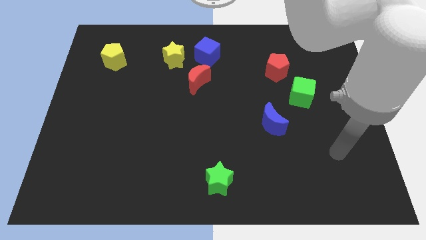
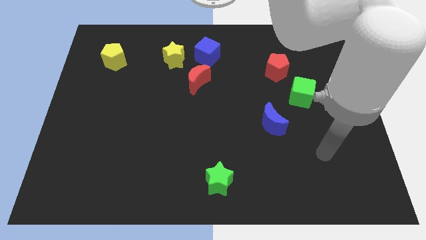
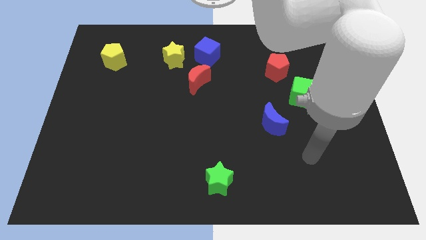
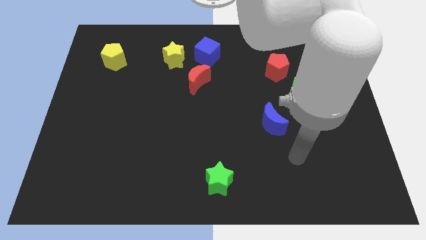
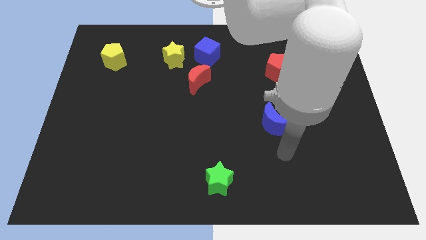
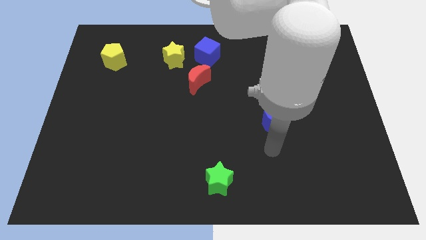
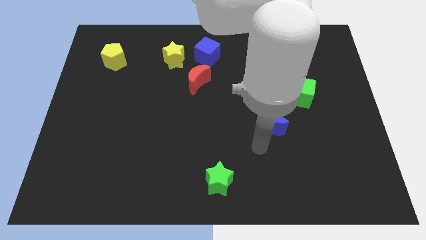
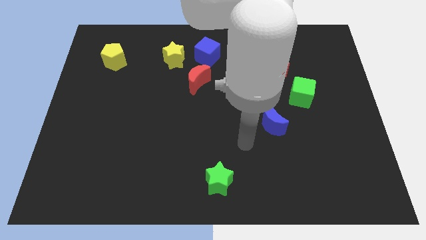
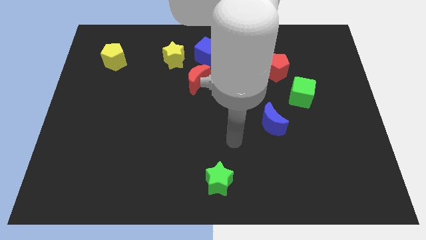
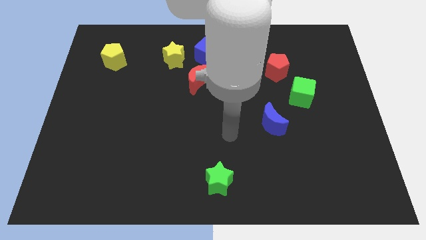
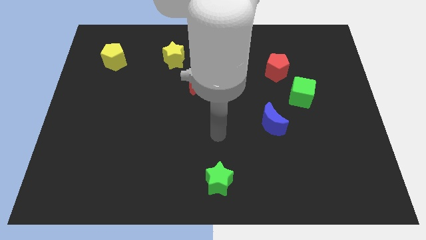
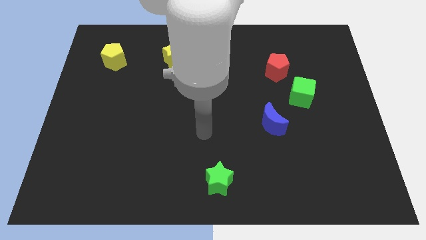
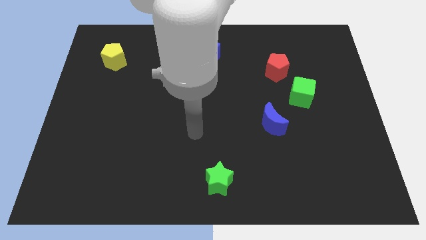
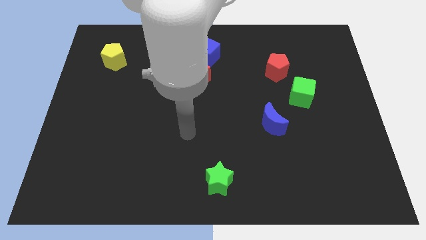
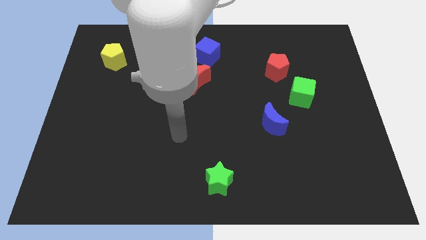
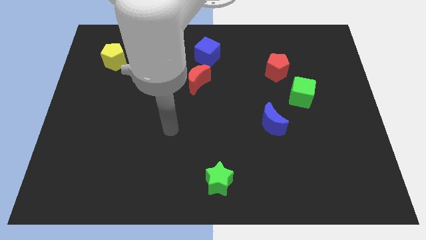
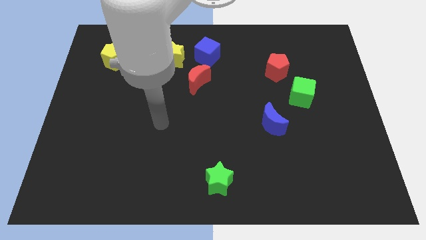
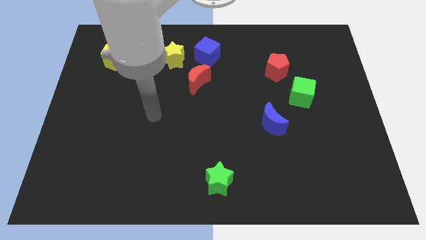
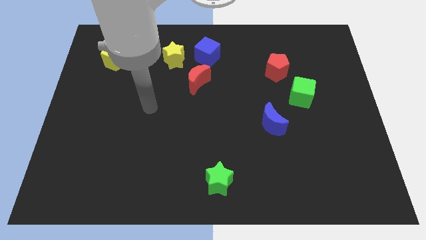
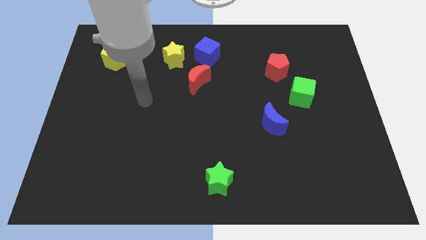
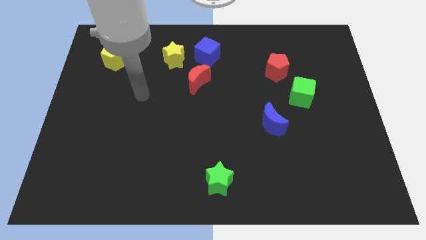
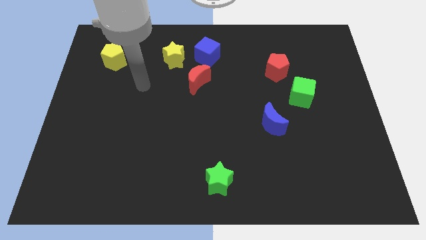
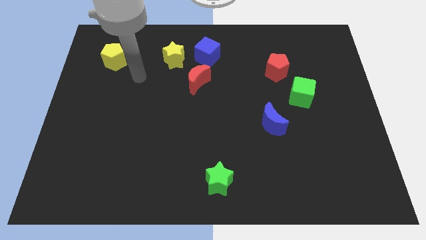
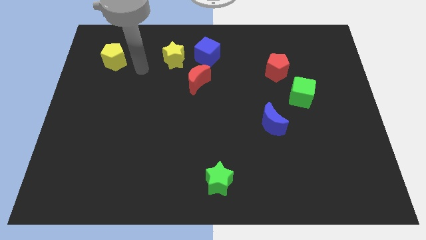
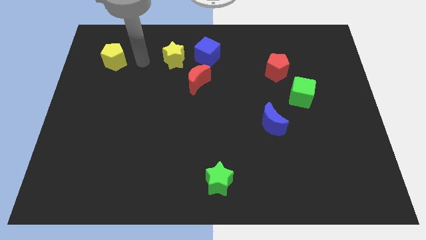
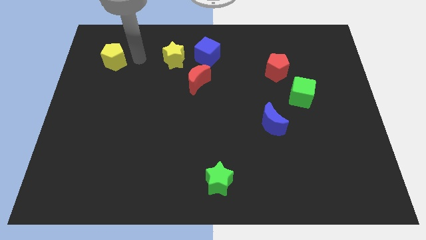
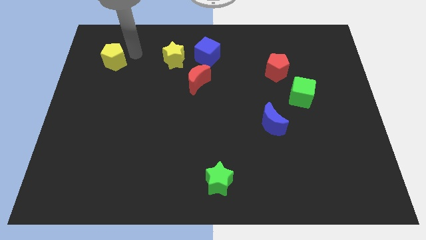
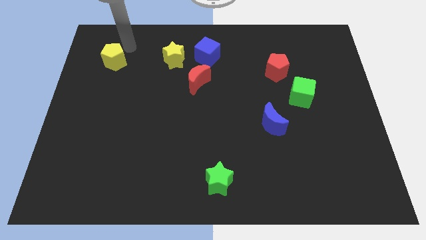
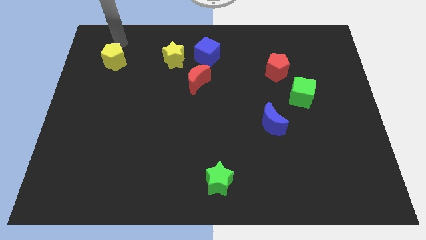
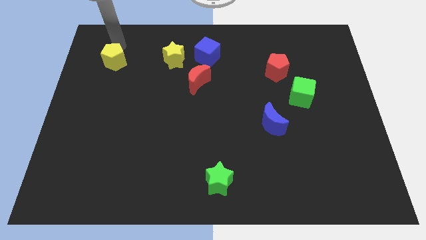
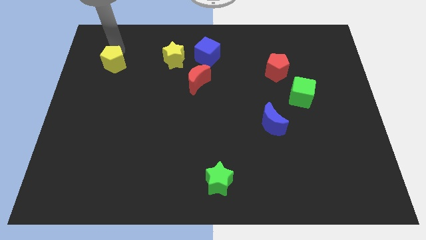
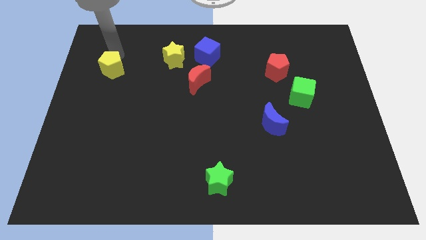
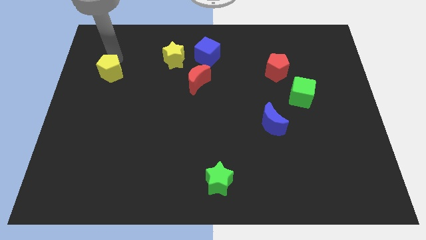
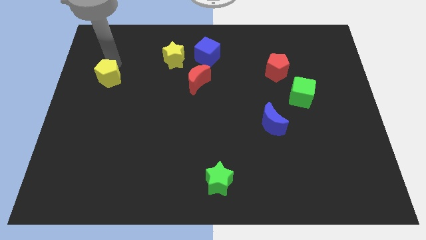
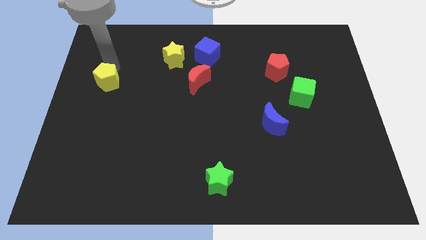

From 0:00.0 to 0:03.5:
slide the yellow pentagon a little bit downwards

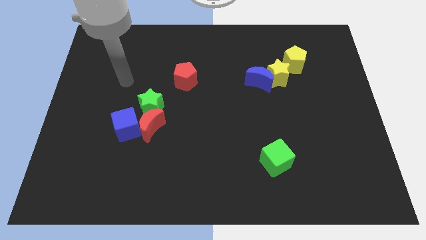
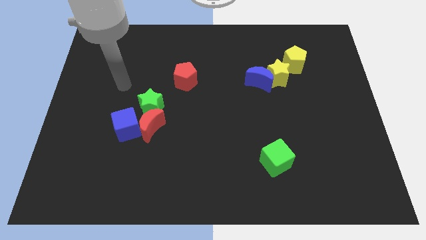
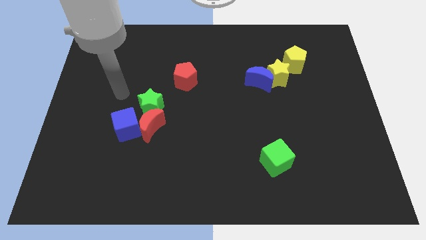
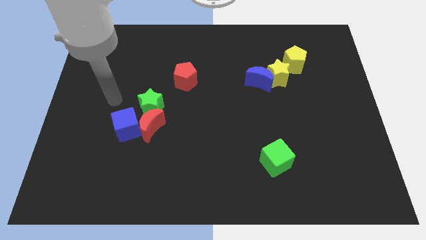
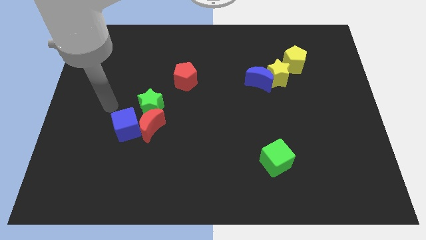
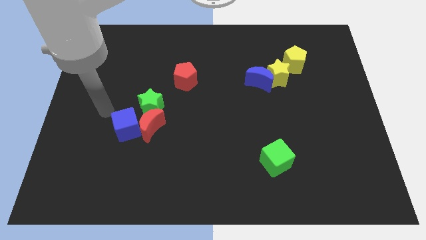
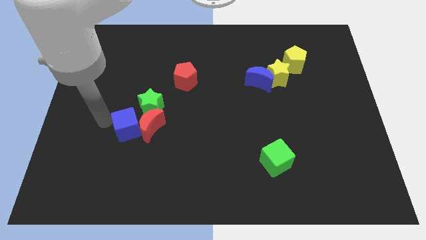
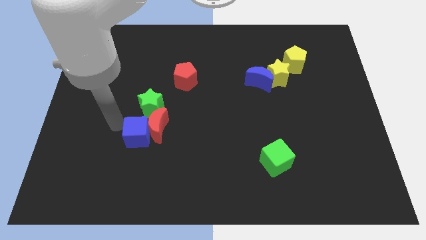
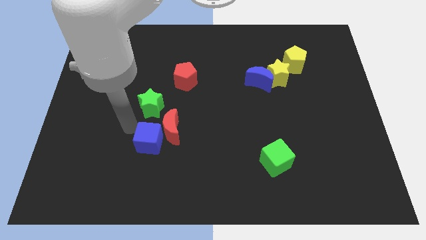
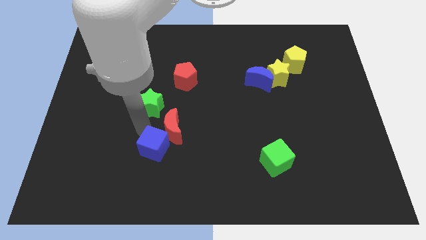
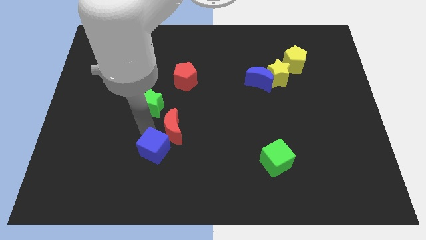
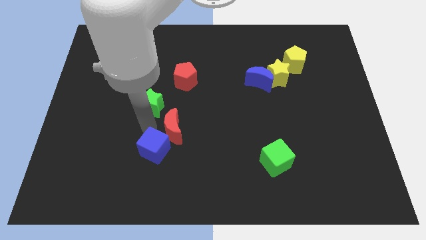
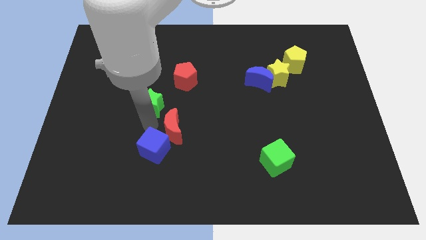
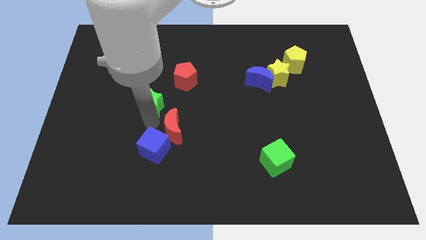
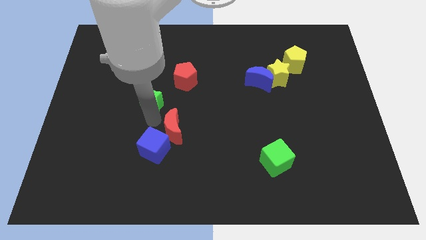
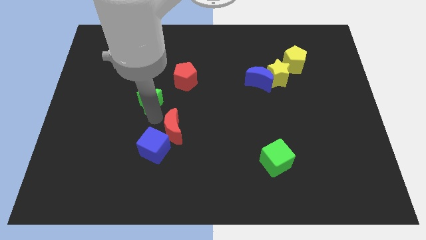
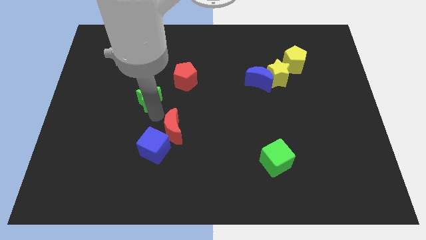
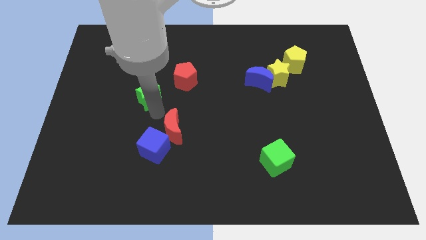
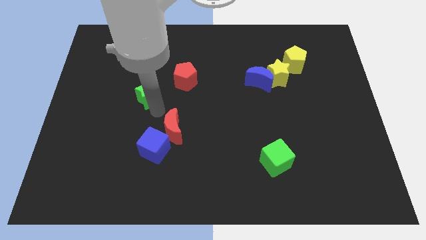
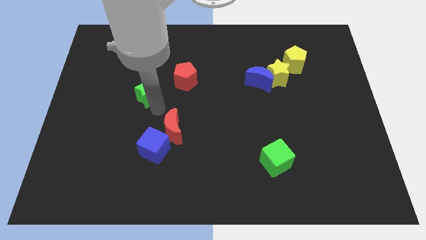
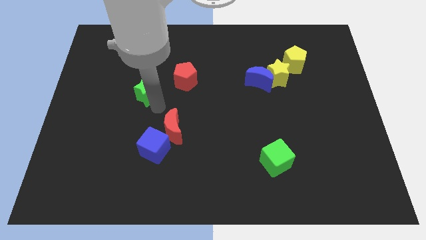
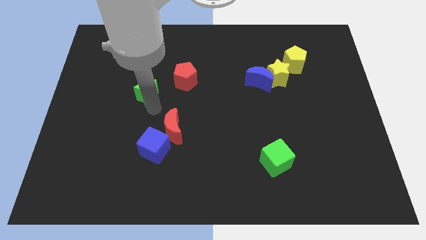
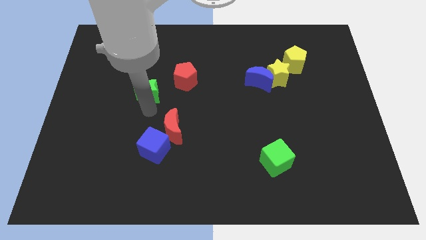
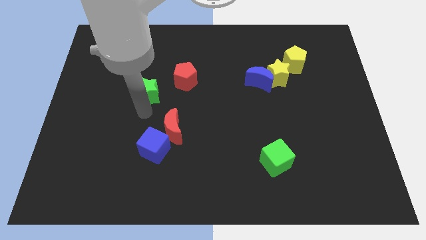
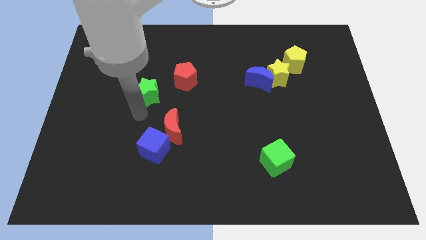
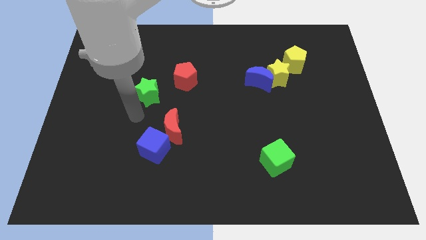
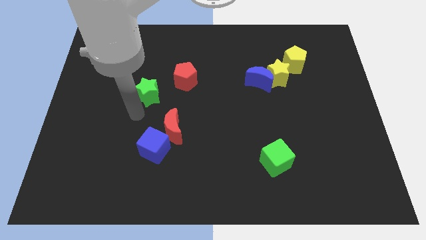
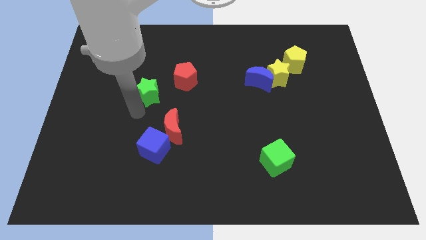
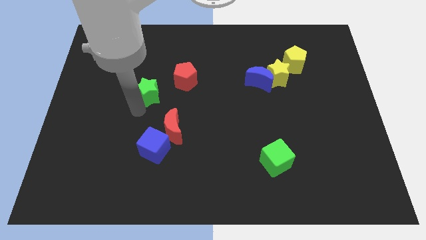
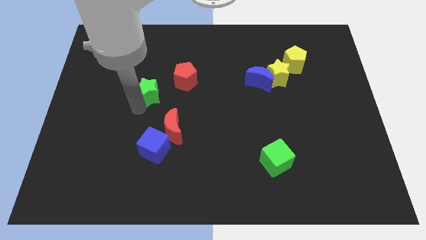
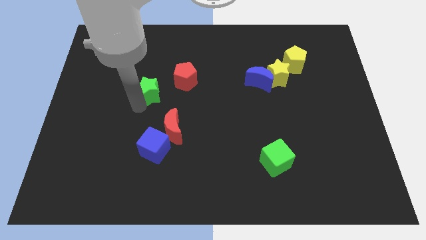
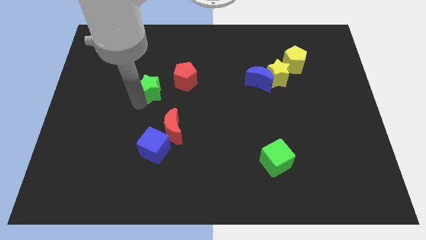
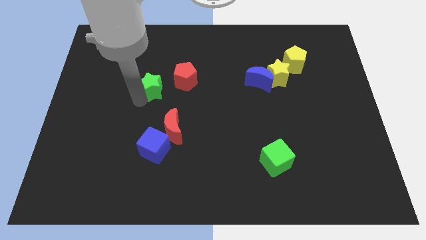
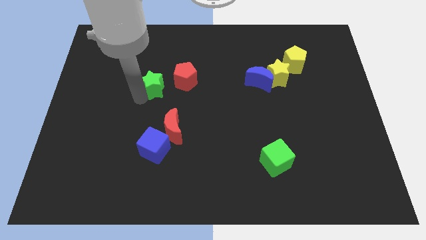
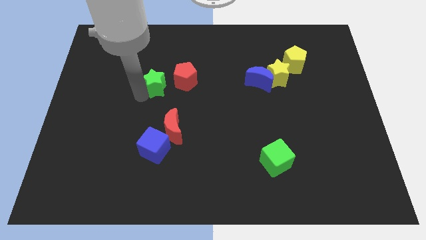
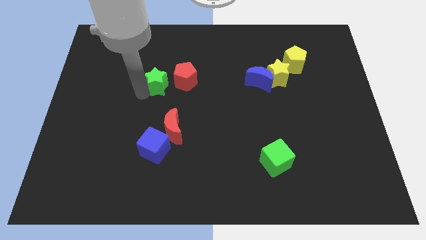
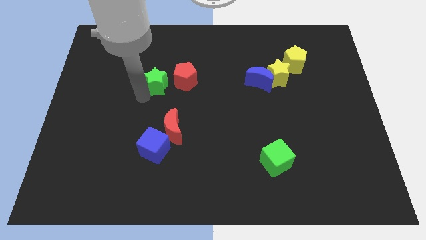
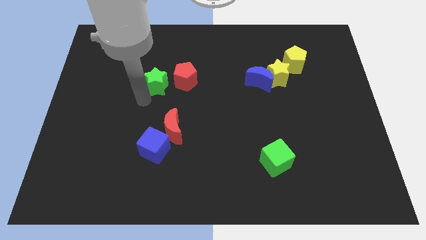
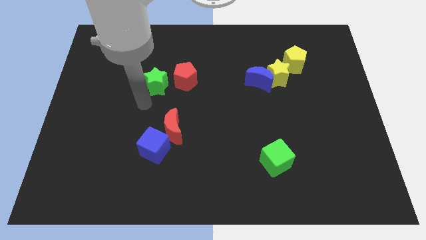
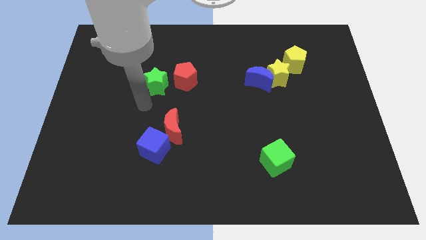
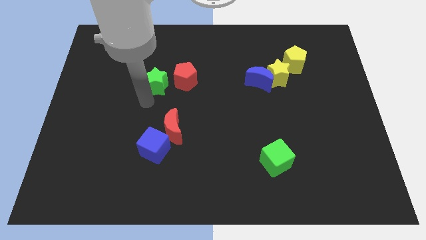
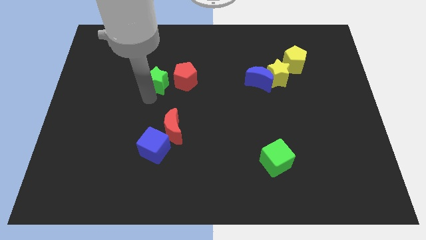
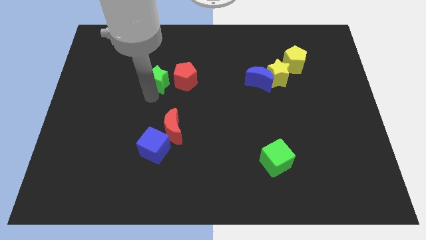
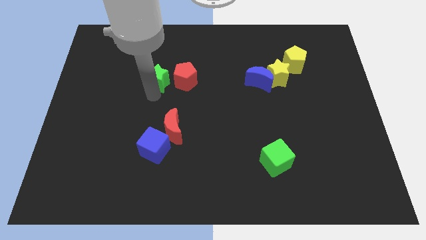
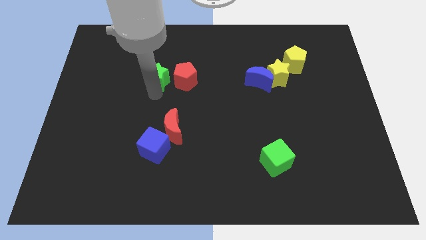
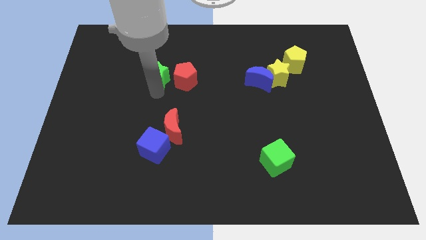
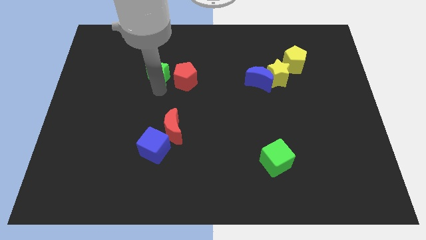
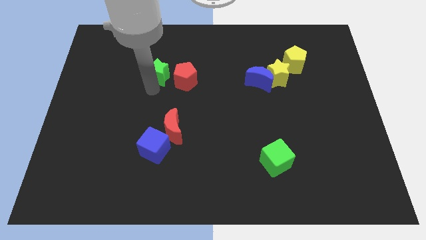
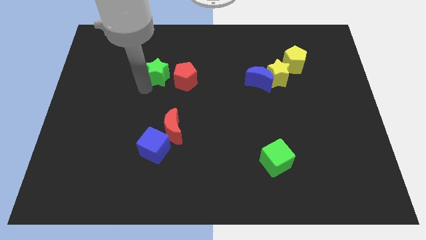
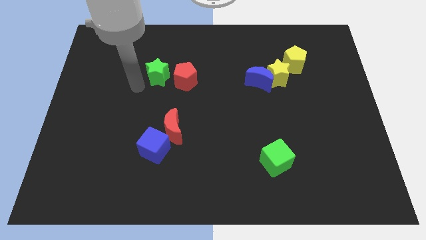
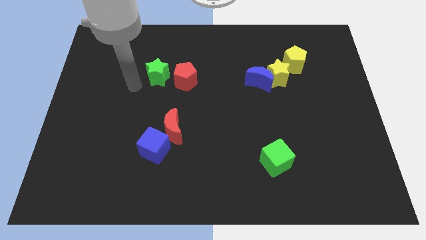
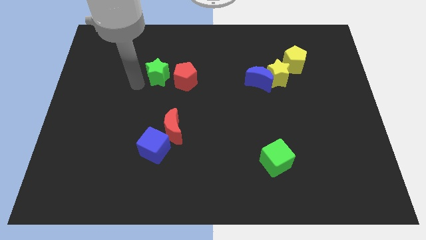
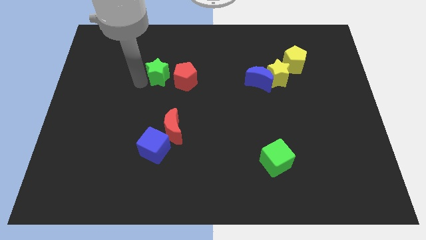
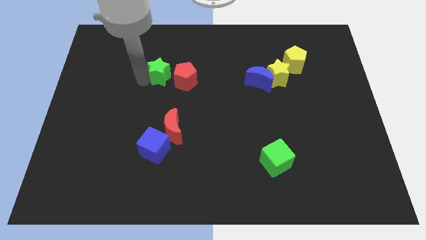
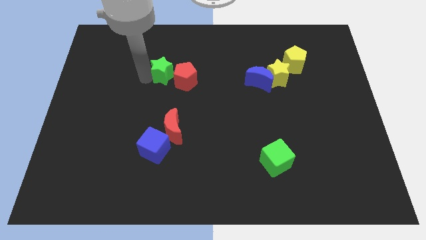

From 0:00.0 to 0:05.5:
move the green star diagonally upwards and to the right a little
